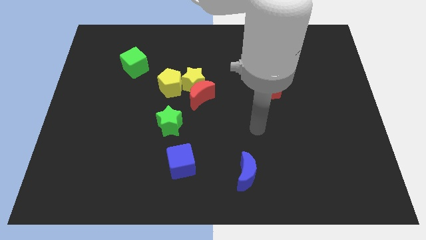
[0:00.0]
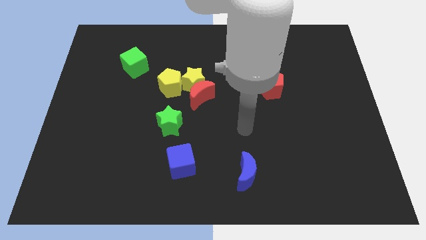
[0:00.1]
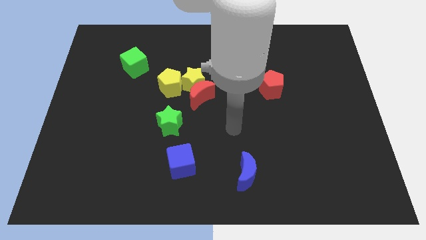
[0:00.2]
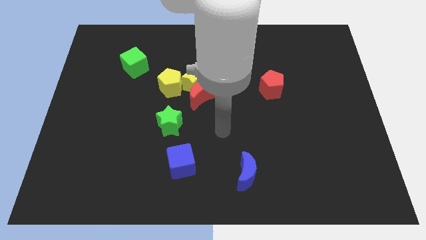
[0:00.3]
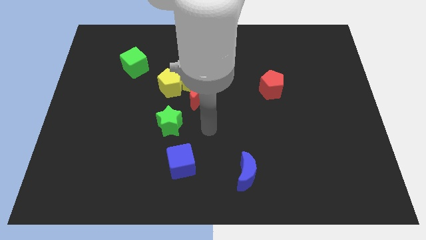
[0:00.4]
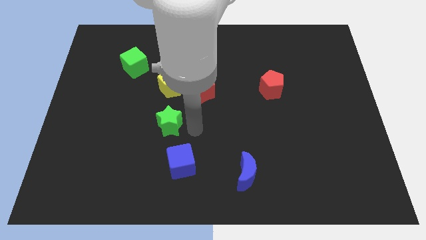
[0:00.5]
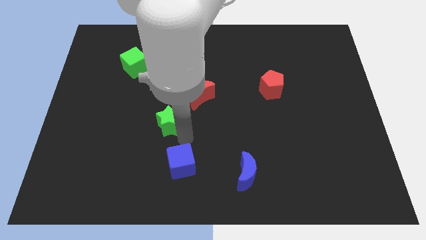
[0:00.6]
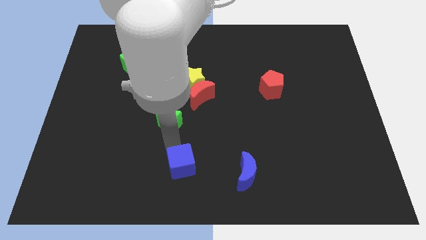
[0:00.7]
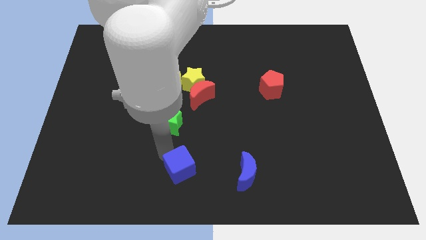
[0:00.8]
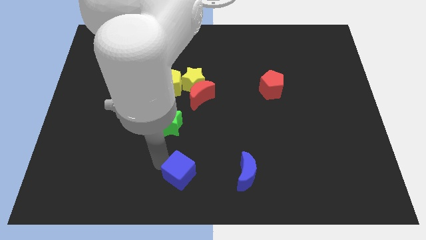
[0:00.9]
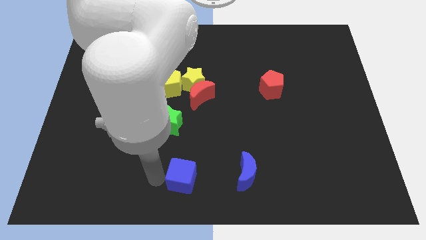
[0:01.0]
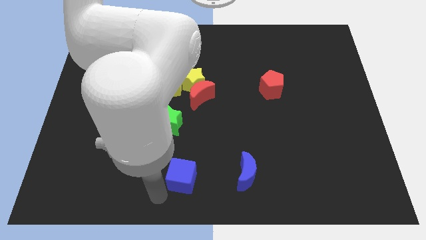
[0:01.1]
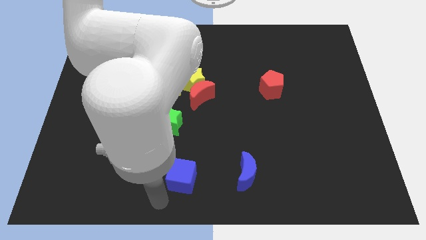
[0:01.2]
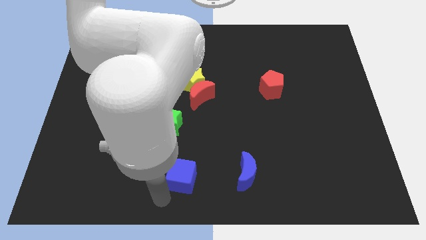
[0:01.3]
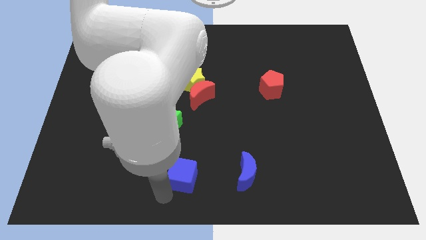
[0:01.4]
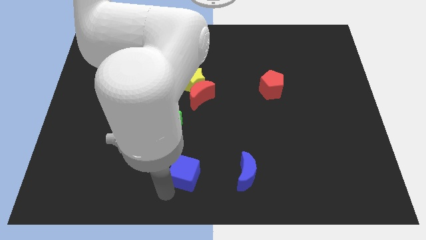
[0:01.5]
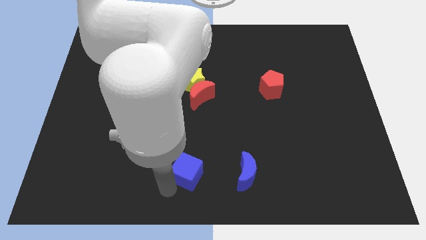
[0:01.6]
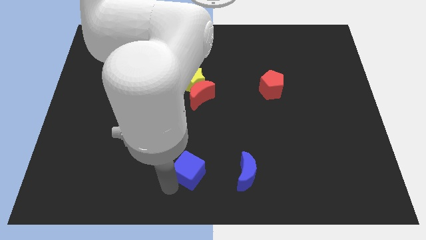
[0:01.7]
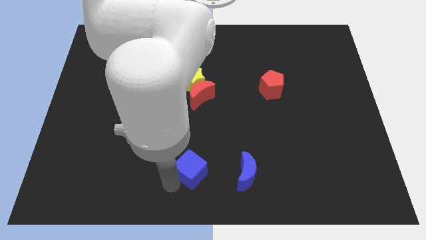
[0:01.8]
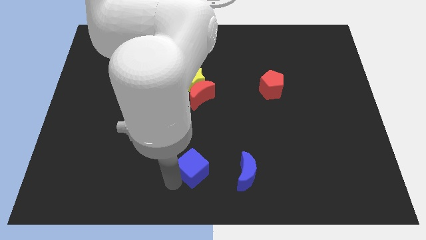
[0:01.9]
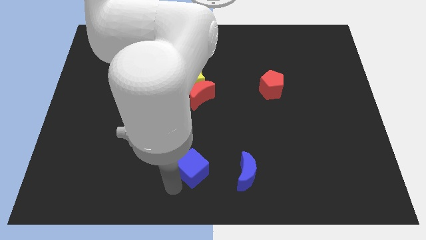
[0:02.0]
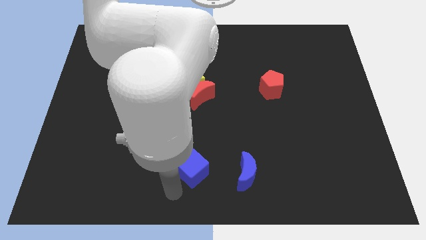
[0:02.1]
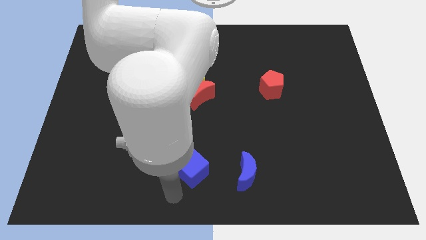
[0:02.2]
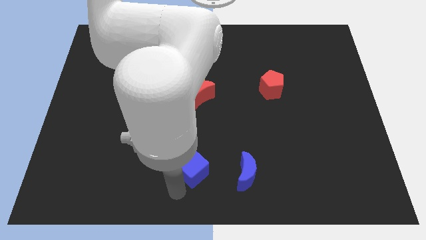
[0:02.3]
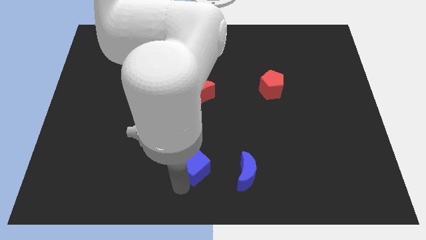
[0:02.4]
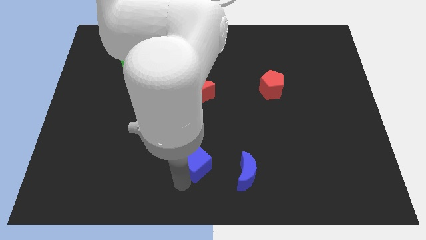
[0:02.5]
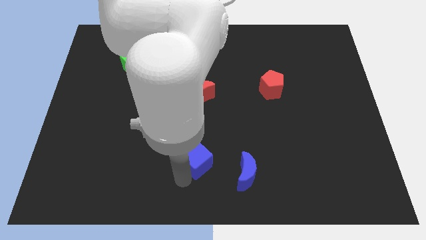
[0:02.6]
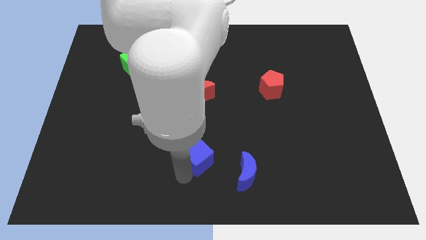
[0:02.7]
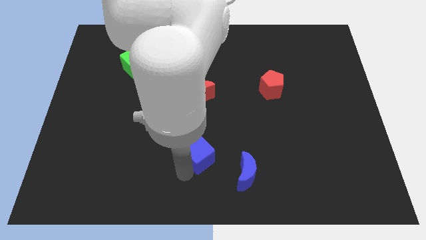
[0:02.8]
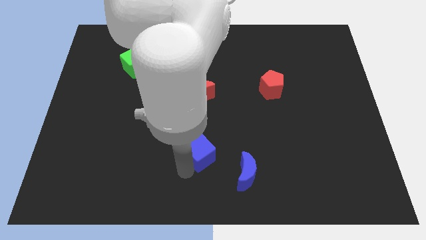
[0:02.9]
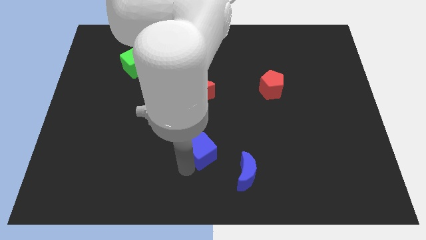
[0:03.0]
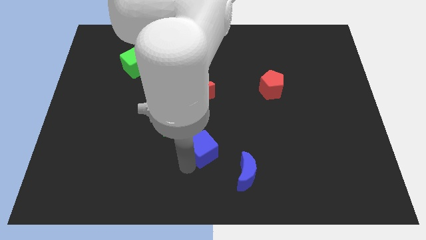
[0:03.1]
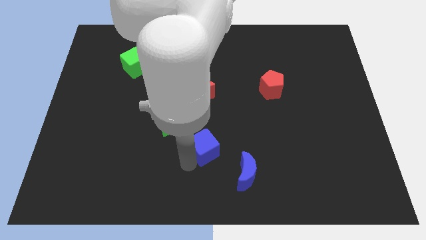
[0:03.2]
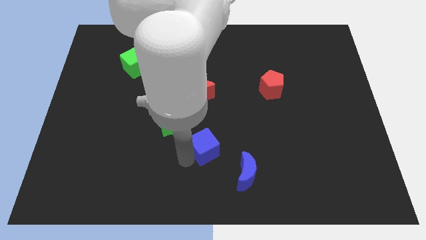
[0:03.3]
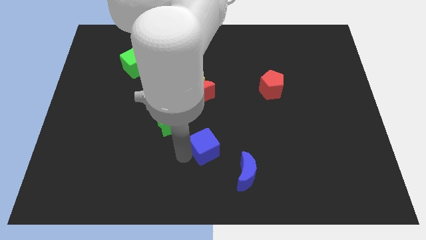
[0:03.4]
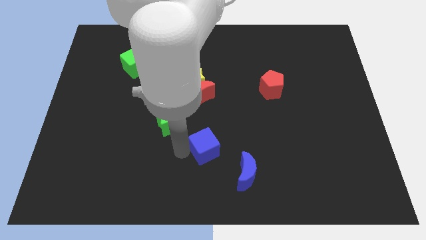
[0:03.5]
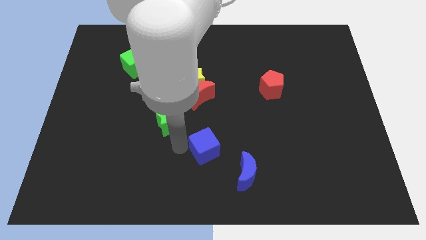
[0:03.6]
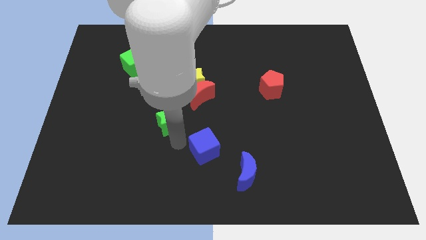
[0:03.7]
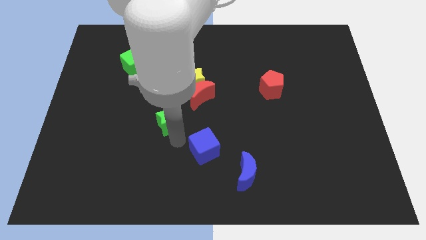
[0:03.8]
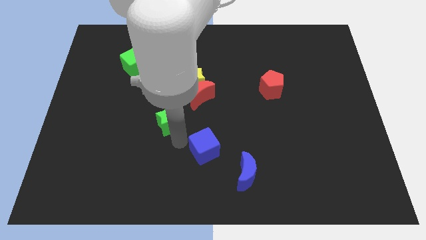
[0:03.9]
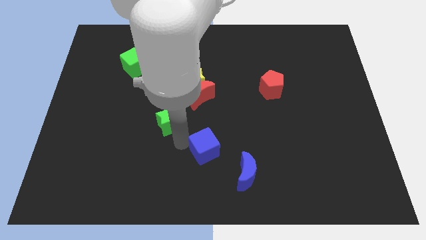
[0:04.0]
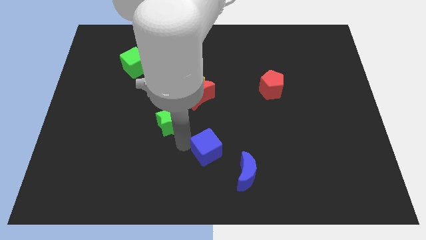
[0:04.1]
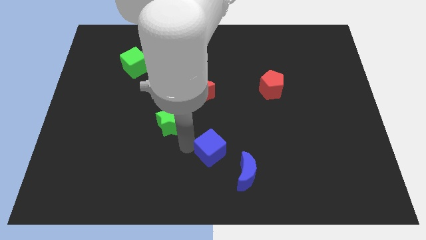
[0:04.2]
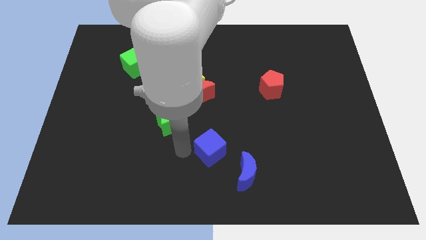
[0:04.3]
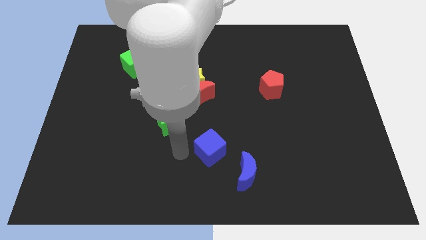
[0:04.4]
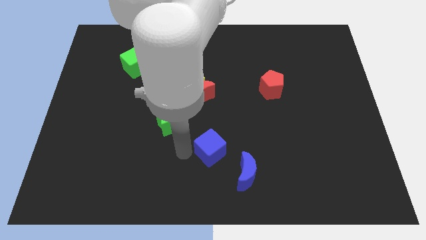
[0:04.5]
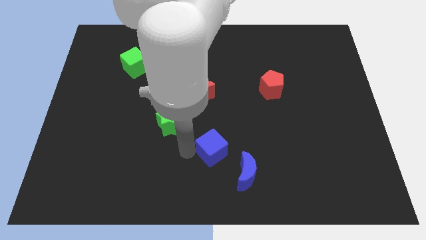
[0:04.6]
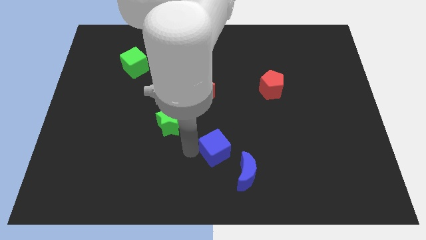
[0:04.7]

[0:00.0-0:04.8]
move the blue cube to the right a little

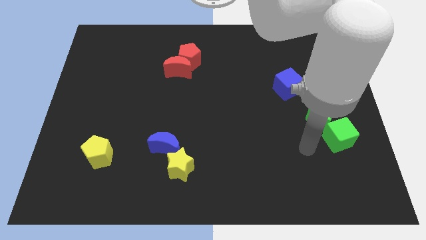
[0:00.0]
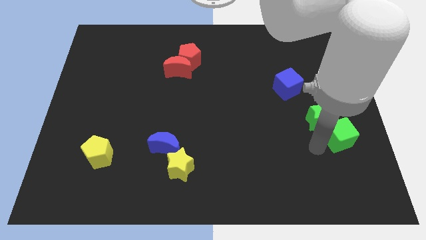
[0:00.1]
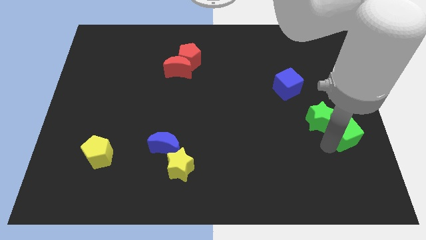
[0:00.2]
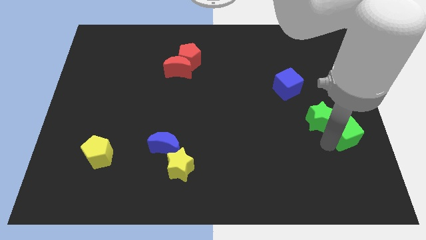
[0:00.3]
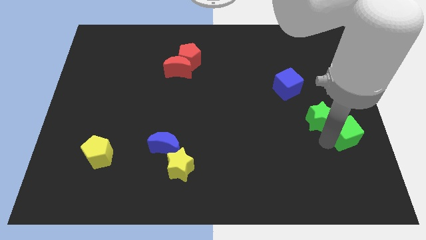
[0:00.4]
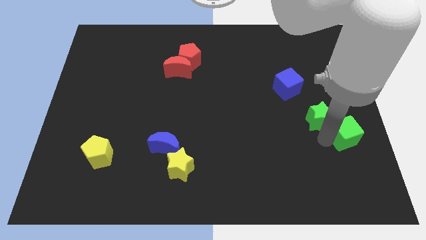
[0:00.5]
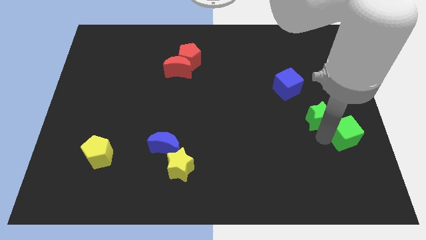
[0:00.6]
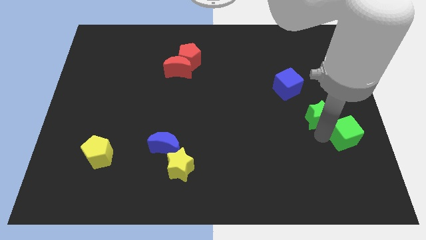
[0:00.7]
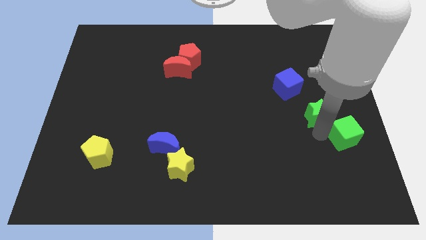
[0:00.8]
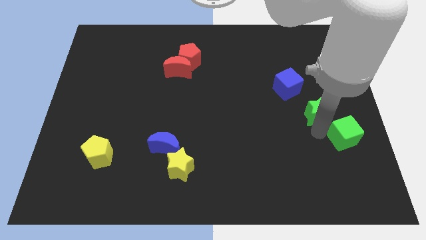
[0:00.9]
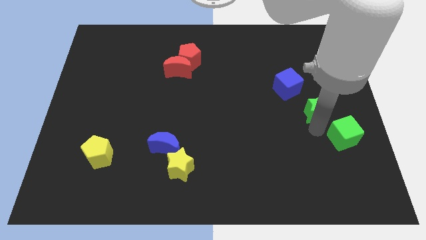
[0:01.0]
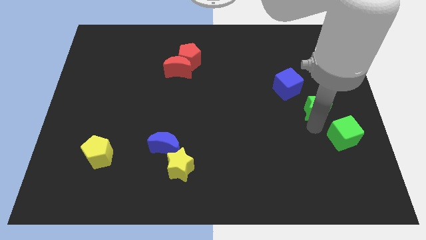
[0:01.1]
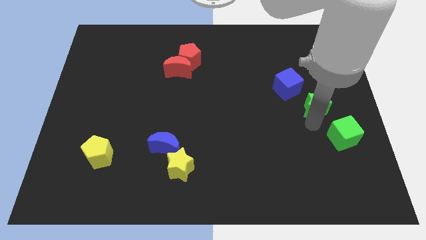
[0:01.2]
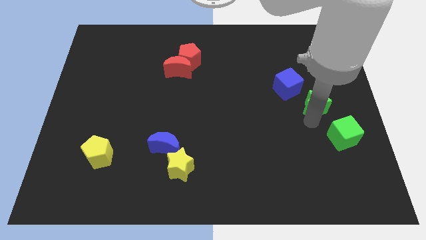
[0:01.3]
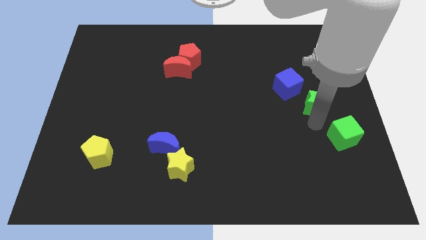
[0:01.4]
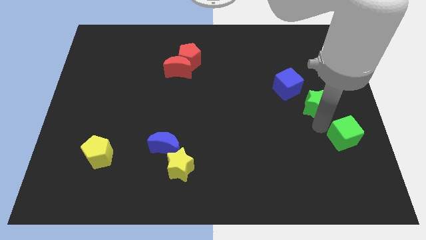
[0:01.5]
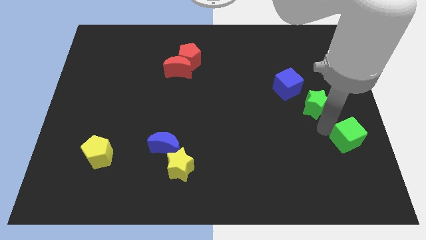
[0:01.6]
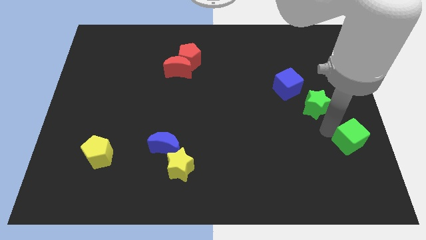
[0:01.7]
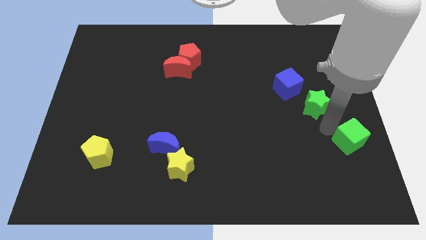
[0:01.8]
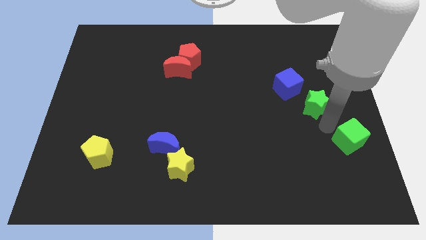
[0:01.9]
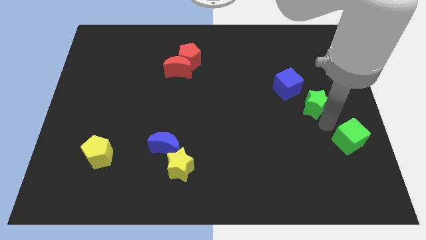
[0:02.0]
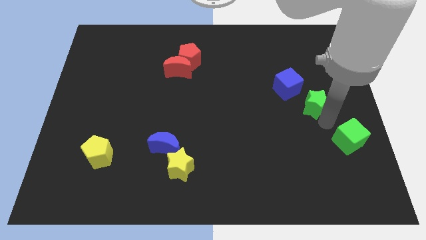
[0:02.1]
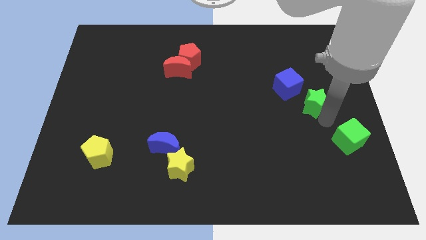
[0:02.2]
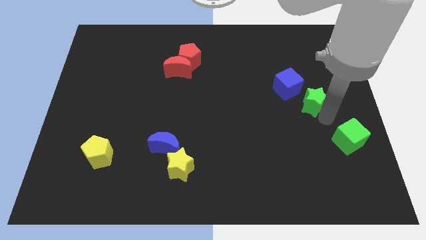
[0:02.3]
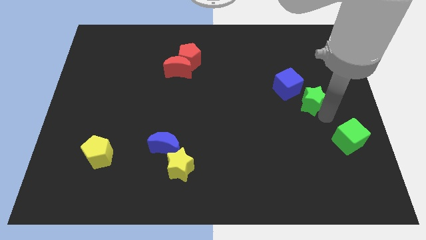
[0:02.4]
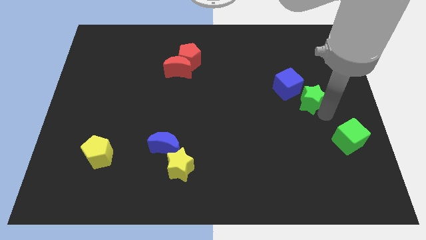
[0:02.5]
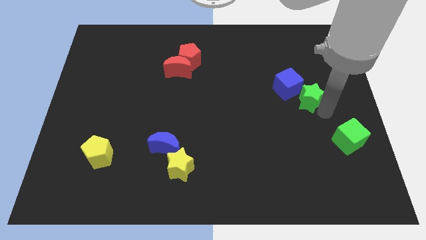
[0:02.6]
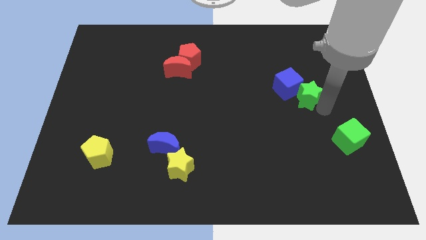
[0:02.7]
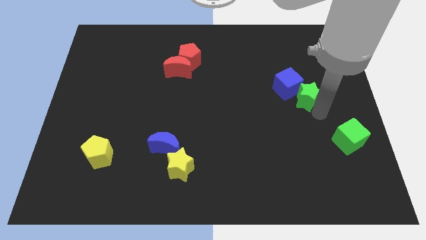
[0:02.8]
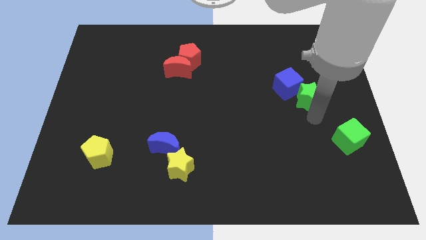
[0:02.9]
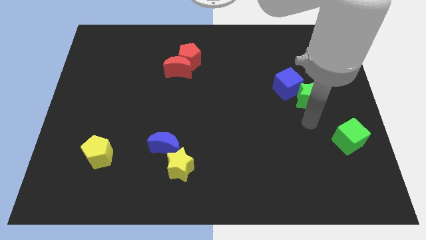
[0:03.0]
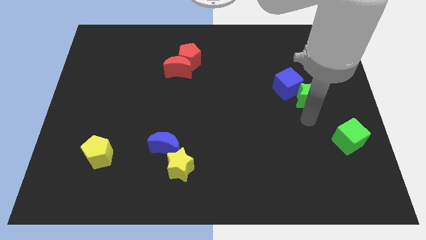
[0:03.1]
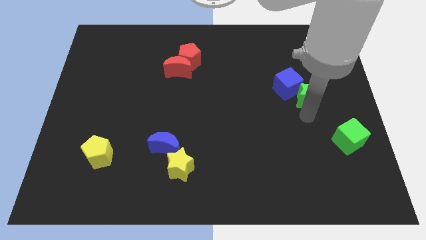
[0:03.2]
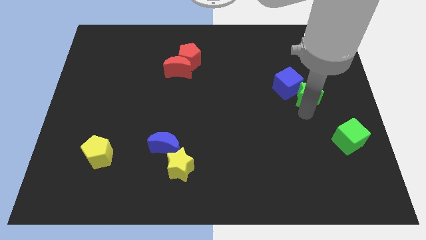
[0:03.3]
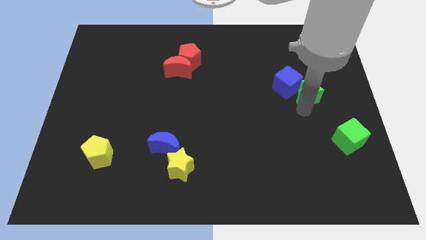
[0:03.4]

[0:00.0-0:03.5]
slide the green star upwards slightly
